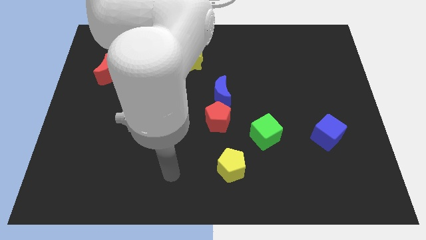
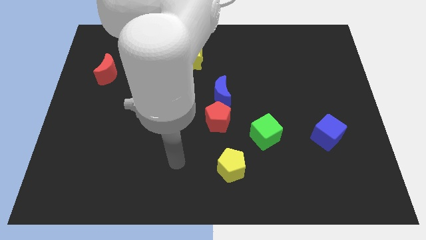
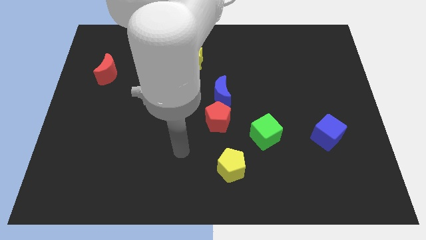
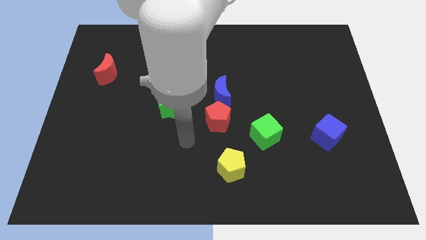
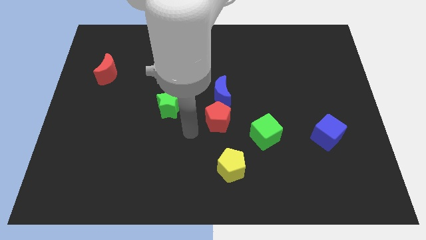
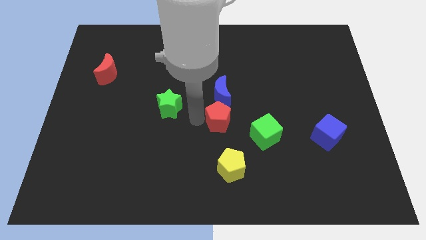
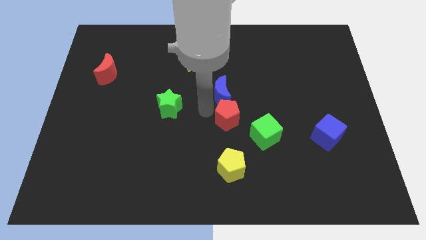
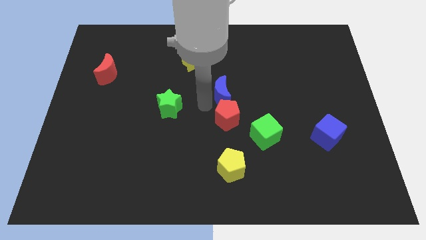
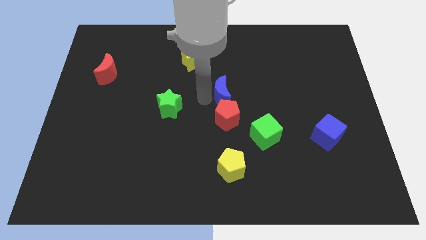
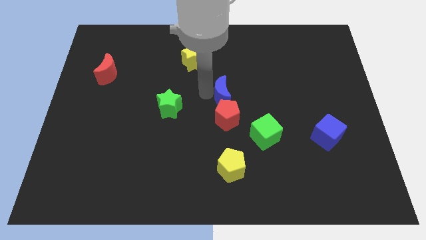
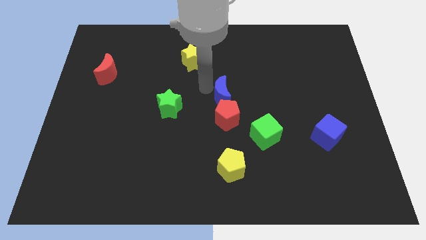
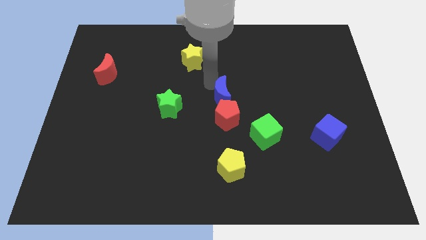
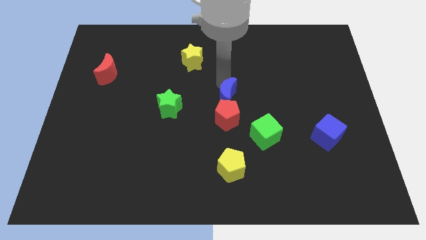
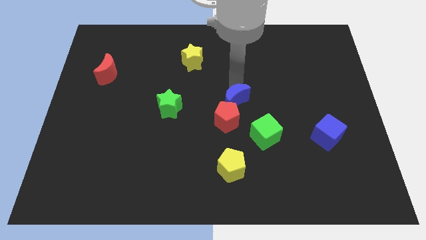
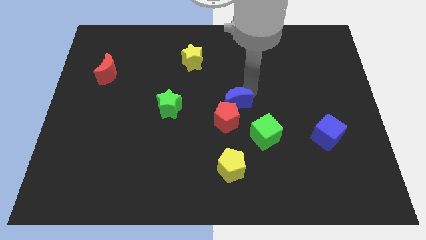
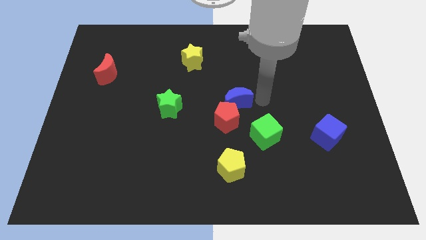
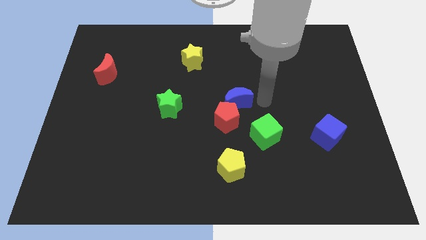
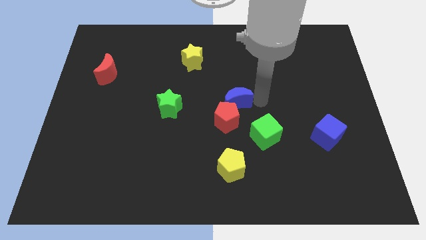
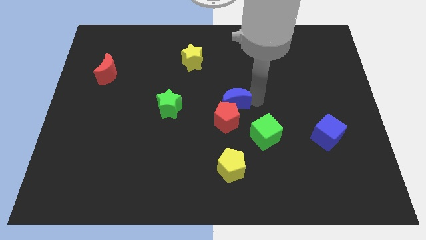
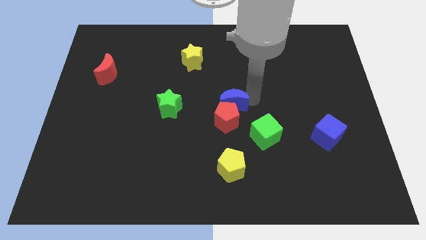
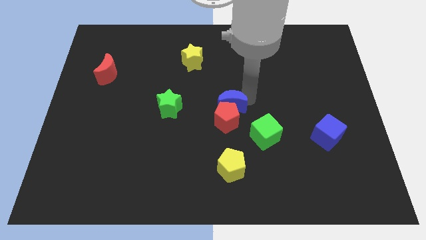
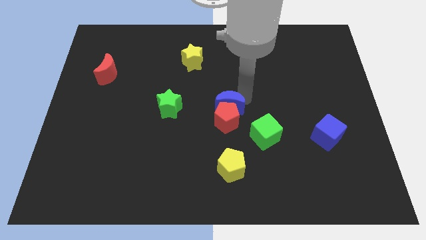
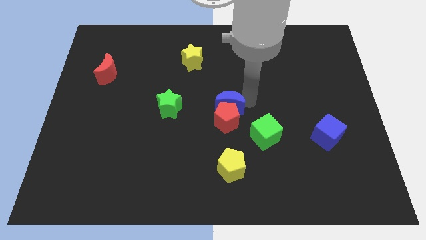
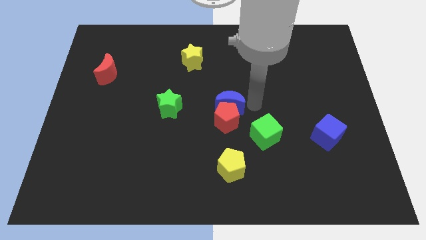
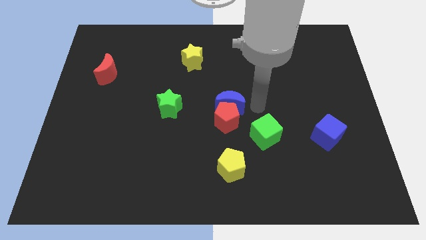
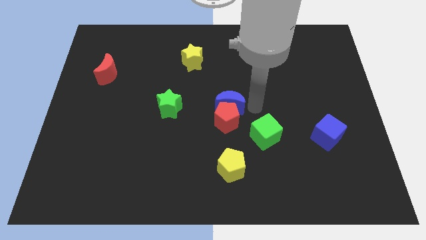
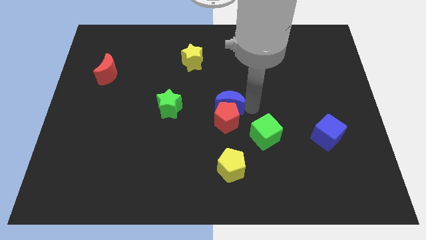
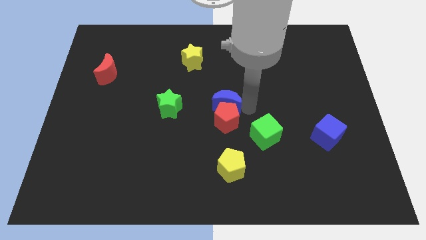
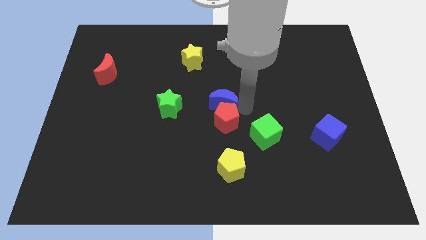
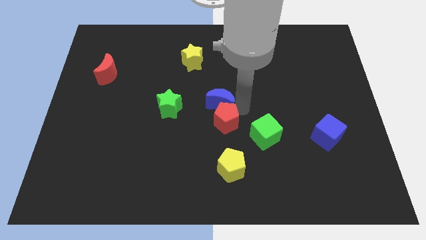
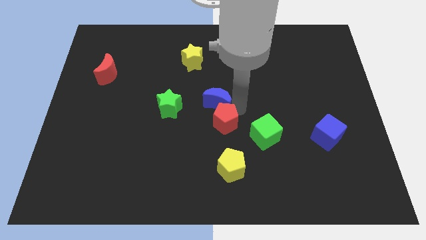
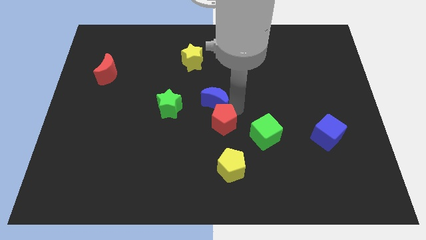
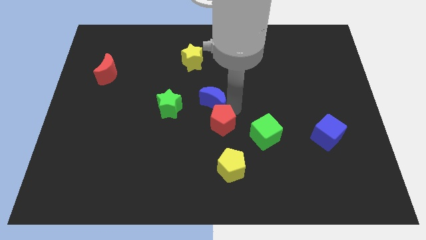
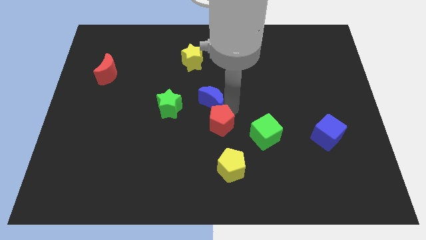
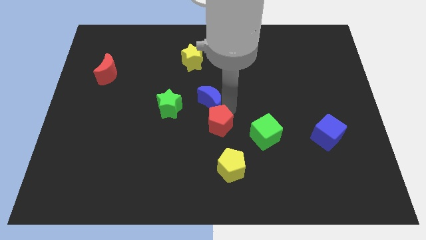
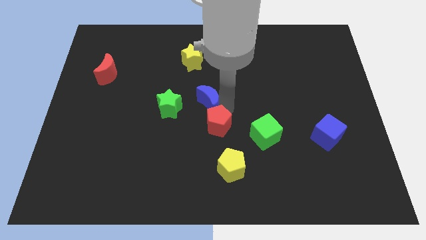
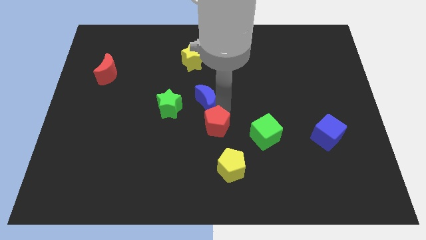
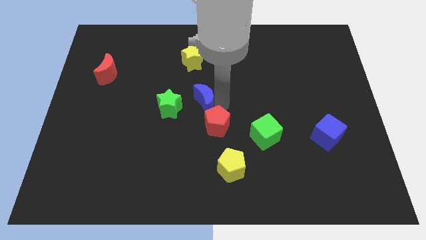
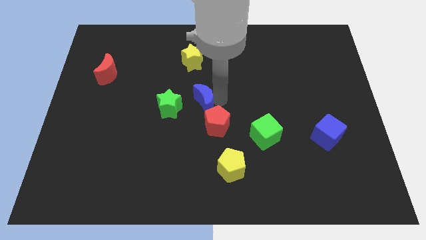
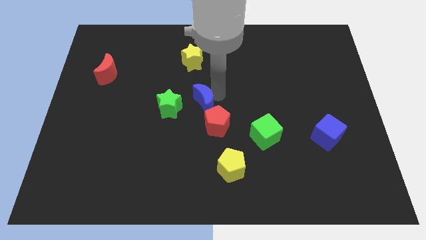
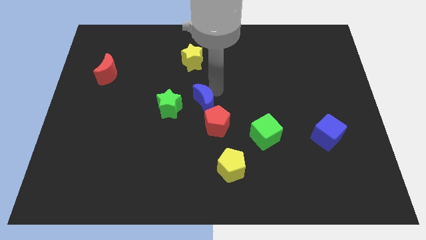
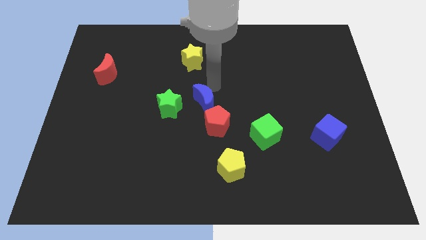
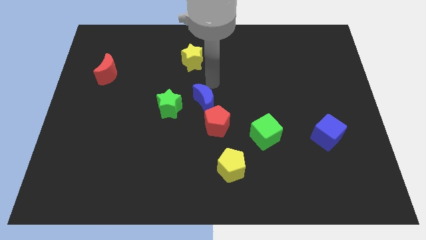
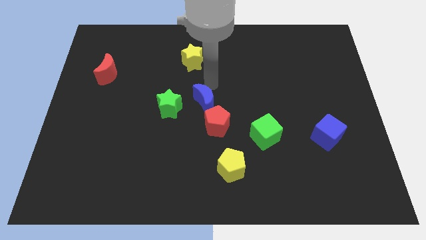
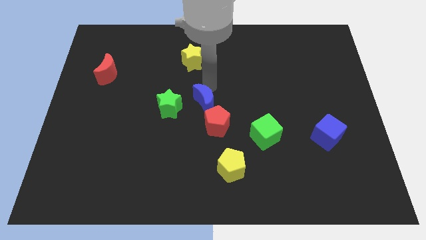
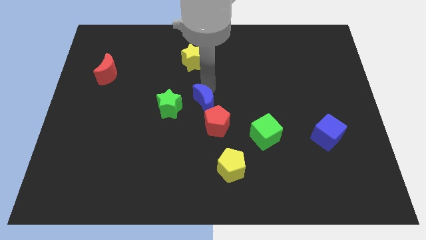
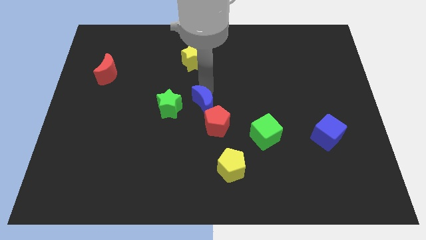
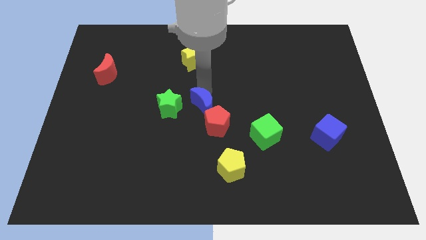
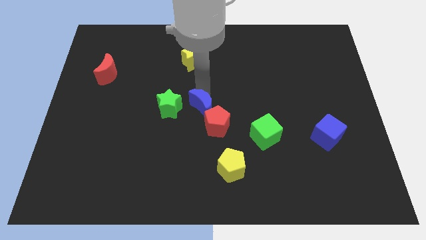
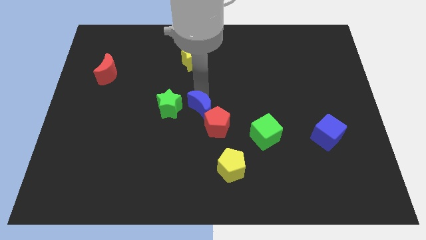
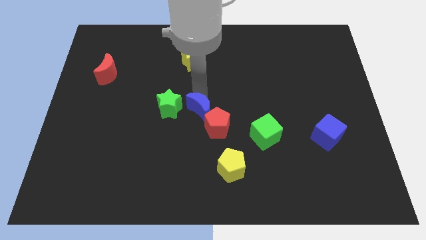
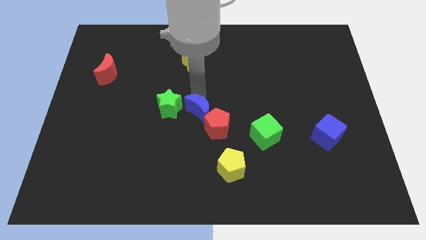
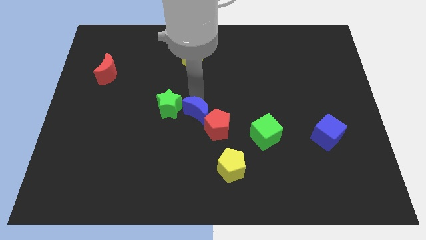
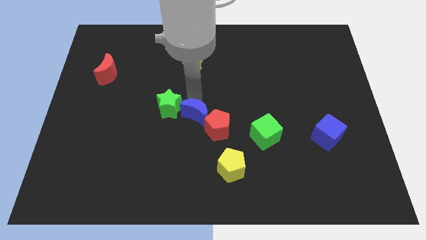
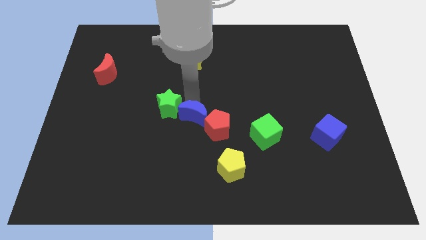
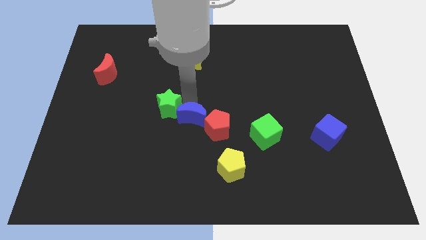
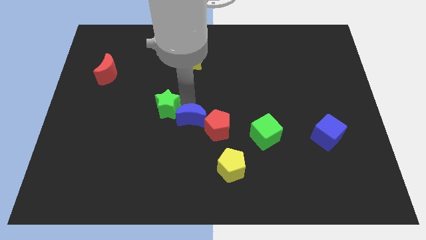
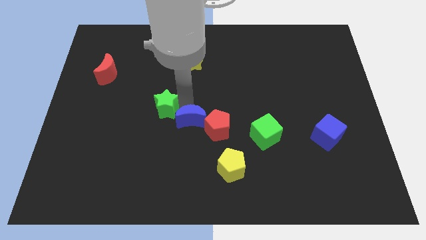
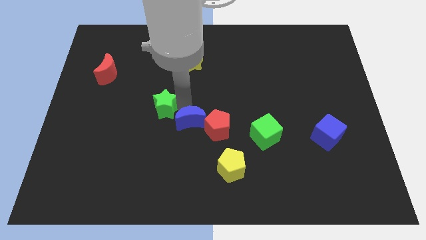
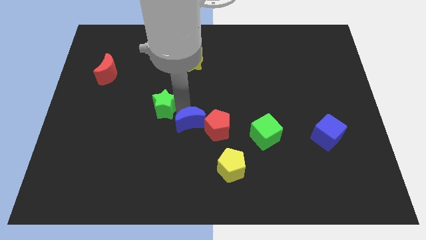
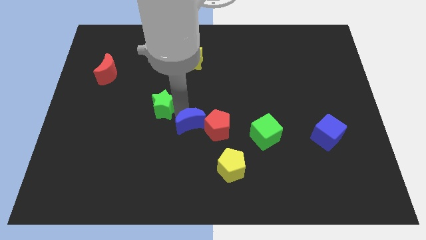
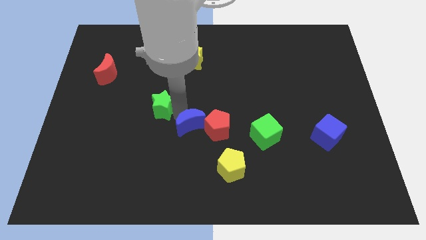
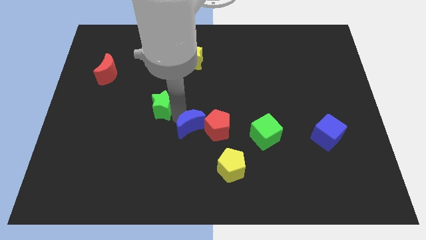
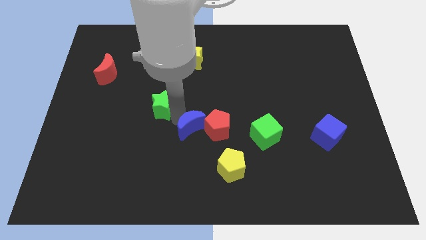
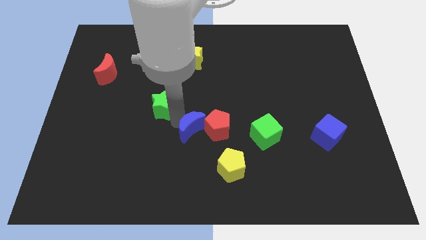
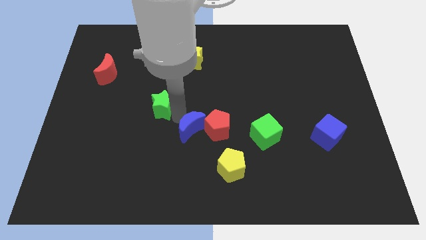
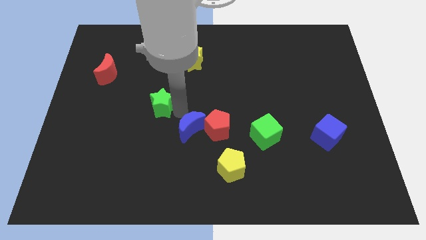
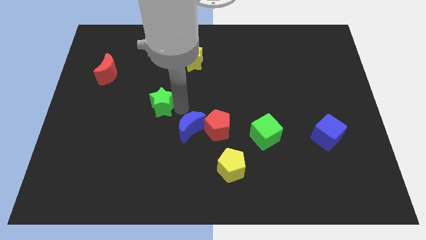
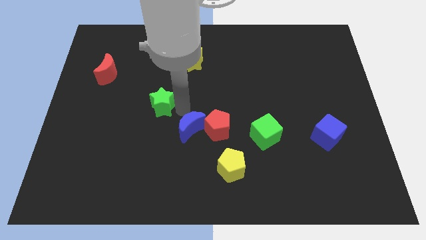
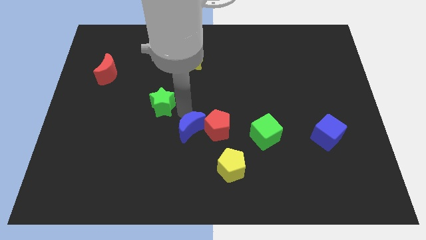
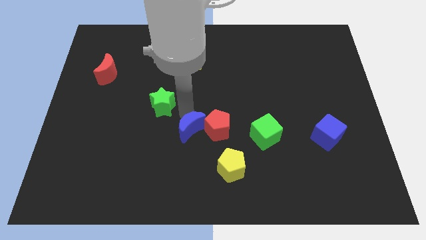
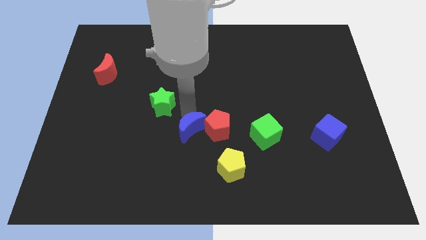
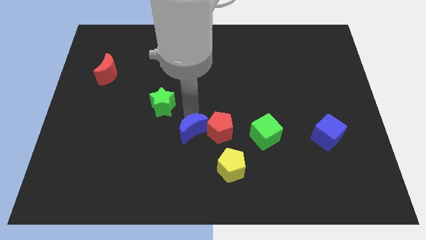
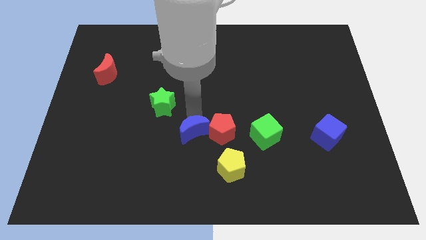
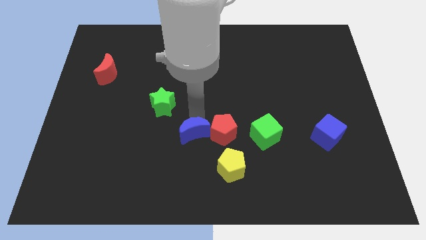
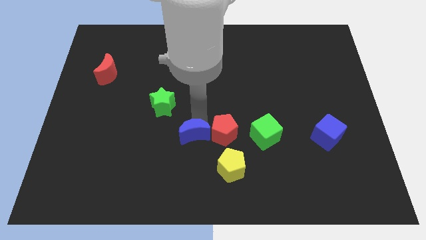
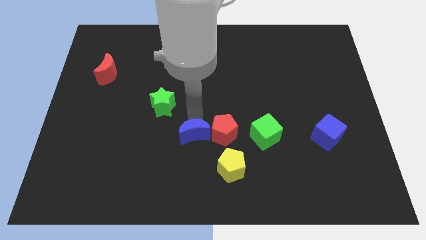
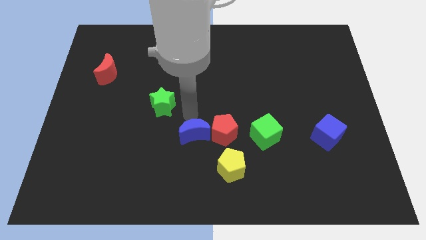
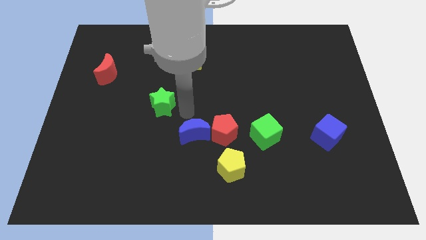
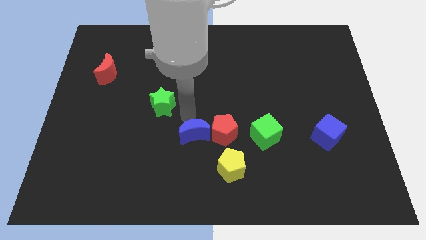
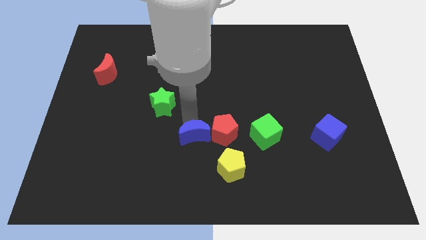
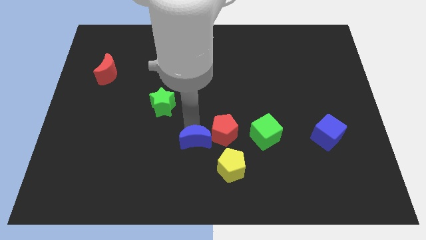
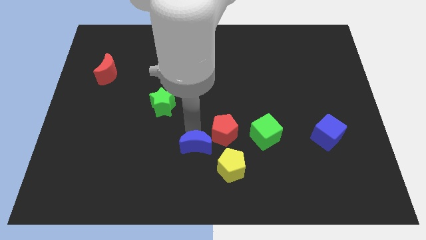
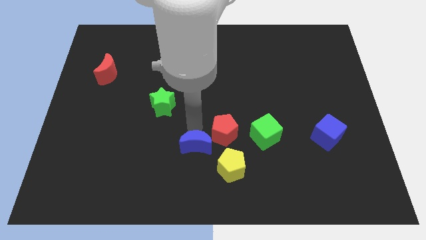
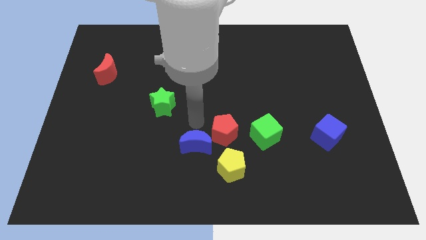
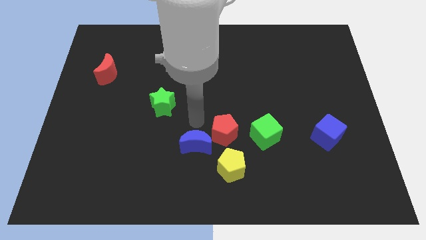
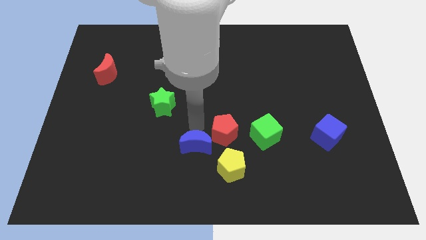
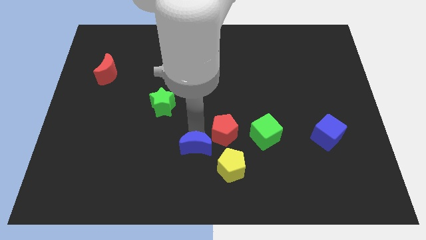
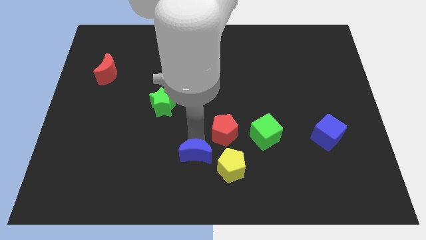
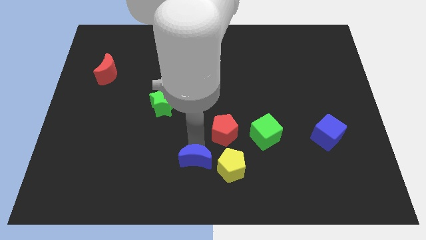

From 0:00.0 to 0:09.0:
move the blue moon to the bottom side
